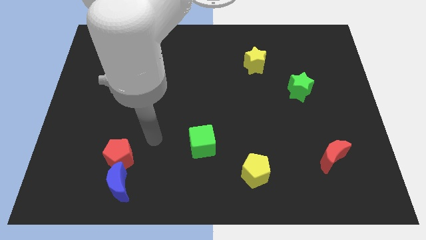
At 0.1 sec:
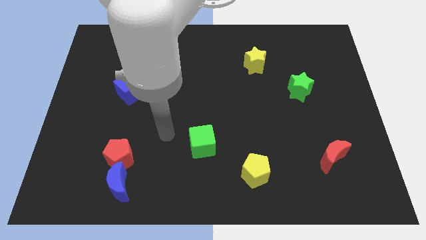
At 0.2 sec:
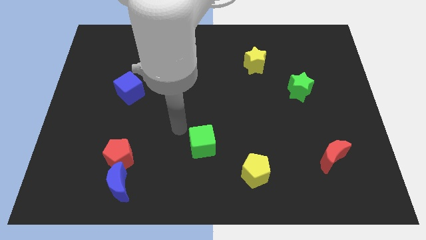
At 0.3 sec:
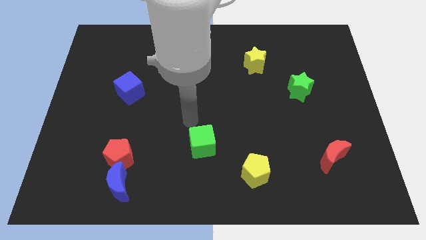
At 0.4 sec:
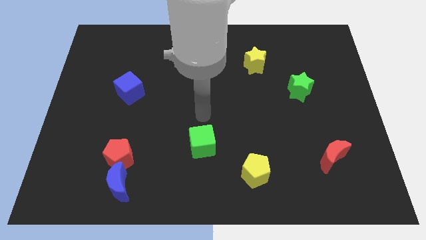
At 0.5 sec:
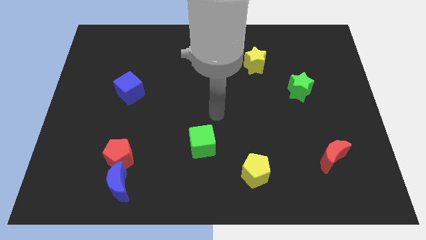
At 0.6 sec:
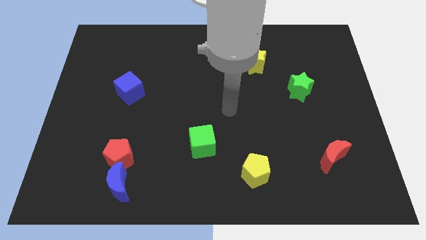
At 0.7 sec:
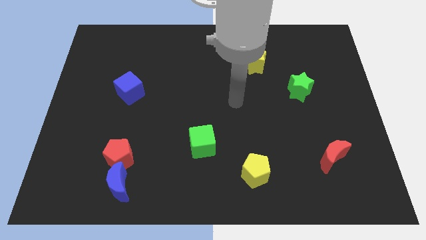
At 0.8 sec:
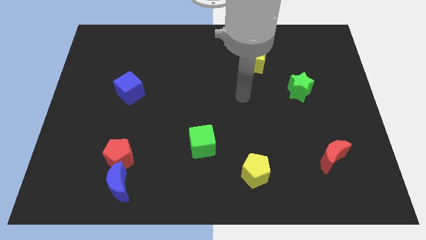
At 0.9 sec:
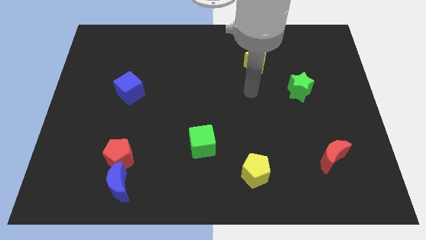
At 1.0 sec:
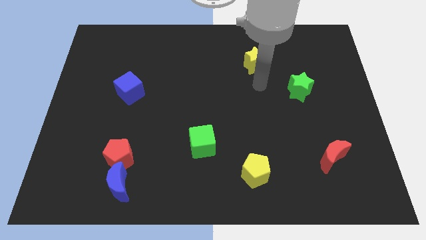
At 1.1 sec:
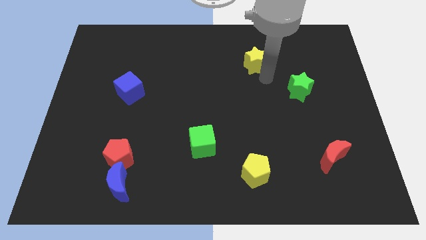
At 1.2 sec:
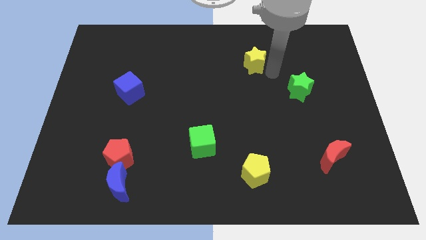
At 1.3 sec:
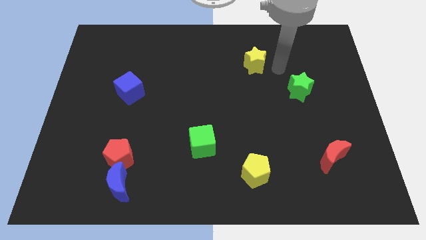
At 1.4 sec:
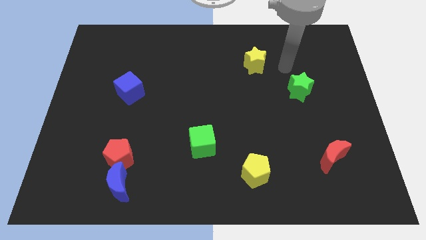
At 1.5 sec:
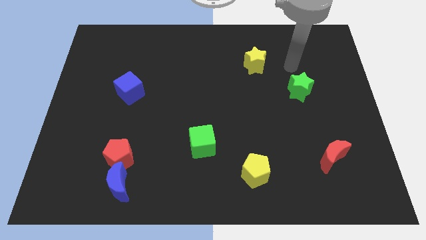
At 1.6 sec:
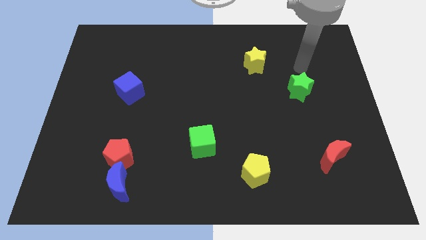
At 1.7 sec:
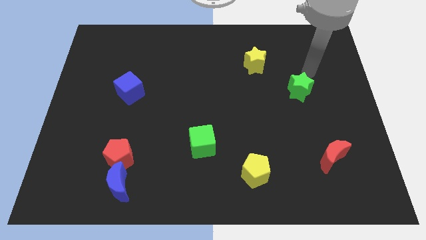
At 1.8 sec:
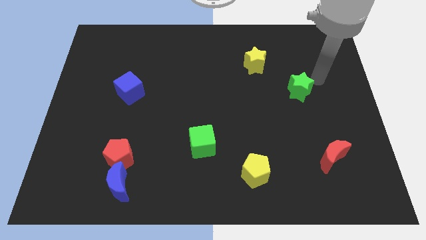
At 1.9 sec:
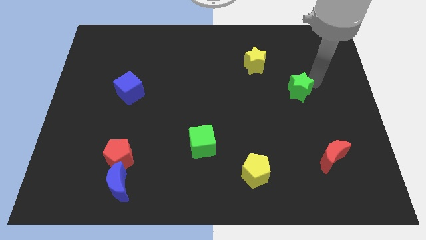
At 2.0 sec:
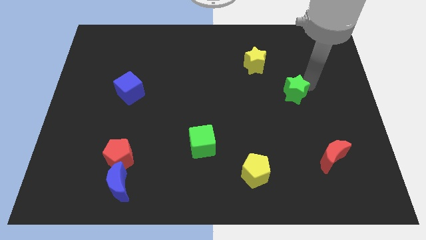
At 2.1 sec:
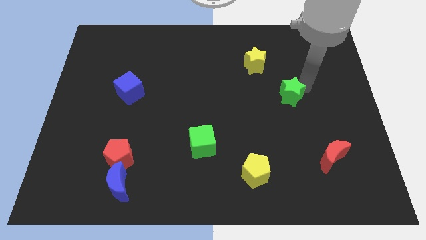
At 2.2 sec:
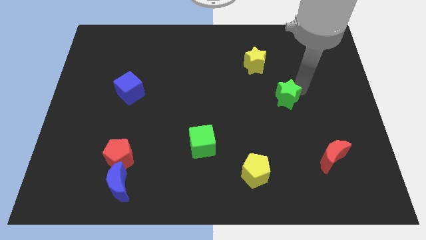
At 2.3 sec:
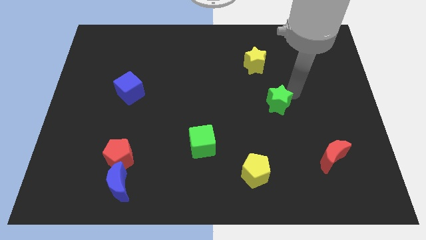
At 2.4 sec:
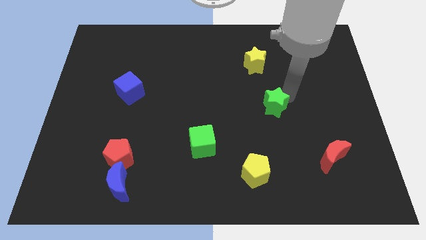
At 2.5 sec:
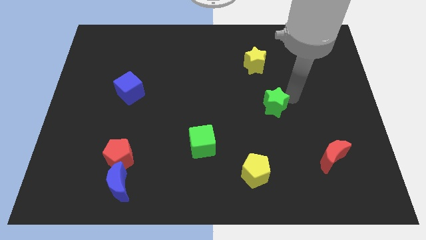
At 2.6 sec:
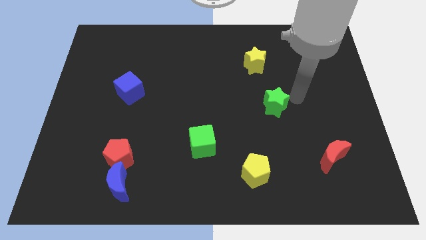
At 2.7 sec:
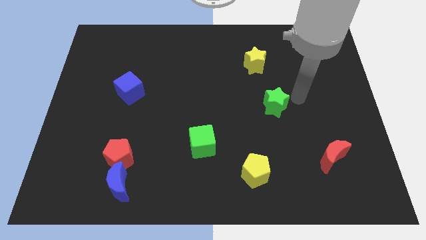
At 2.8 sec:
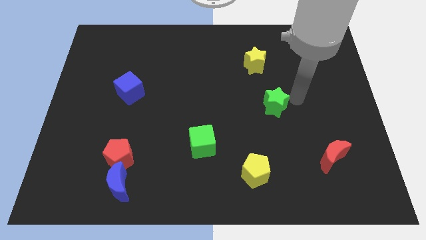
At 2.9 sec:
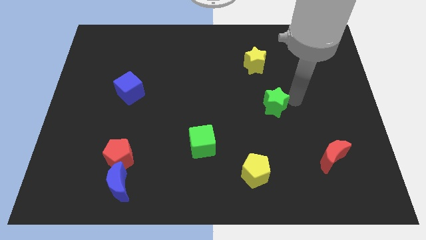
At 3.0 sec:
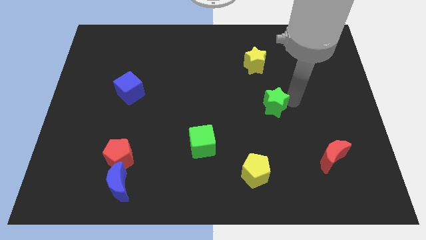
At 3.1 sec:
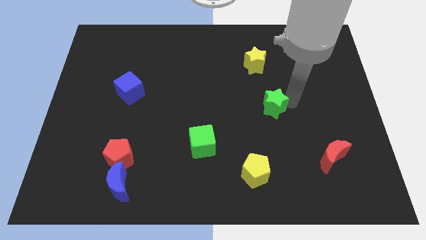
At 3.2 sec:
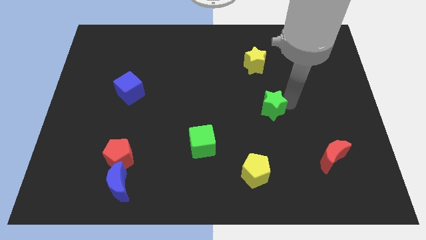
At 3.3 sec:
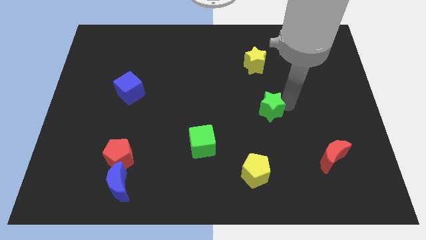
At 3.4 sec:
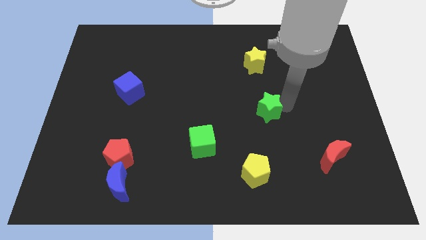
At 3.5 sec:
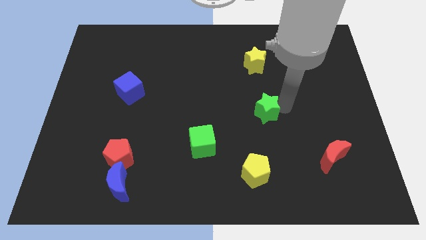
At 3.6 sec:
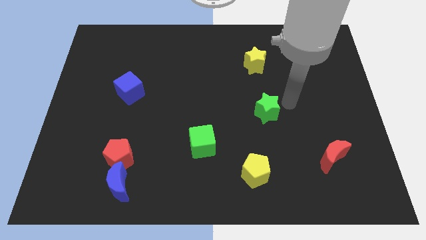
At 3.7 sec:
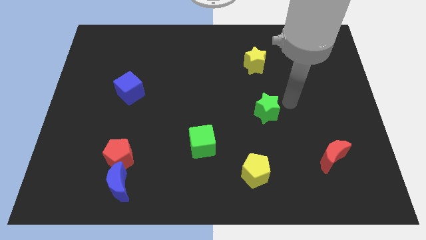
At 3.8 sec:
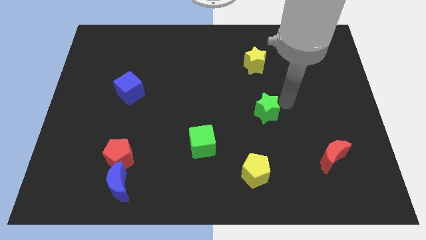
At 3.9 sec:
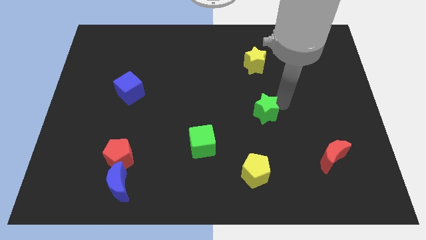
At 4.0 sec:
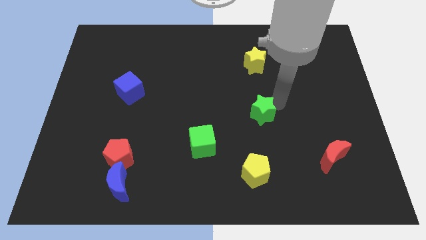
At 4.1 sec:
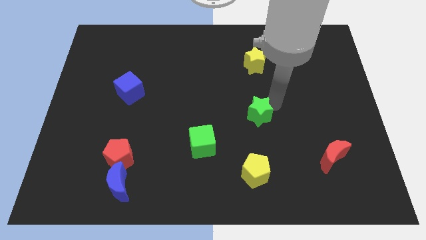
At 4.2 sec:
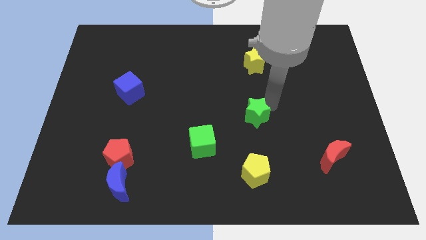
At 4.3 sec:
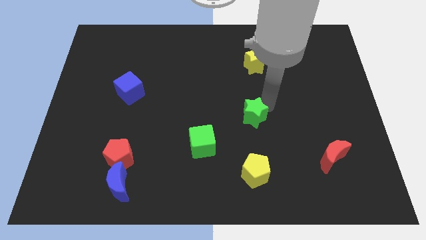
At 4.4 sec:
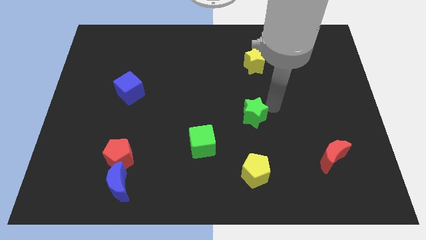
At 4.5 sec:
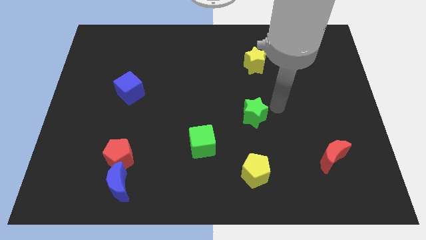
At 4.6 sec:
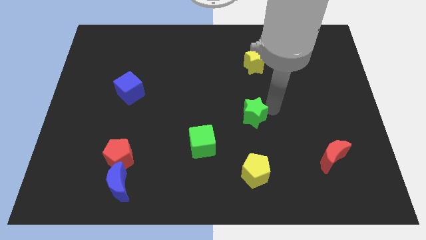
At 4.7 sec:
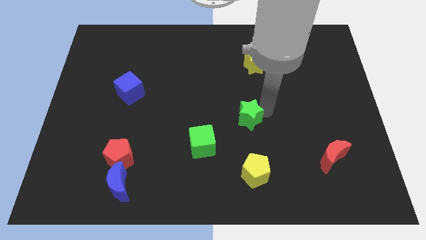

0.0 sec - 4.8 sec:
slide the green star to the top right side of the green cube

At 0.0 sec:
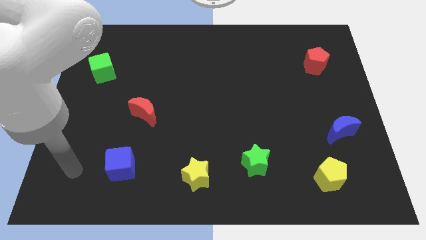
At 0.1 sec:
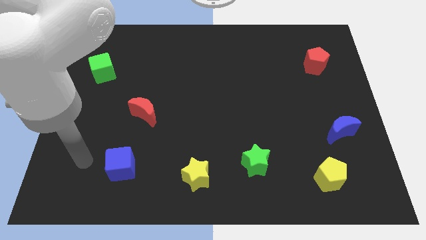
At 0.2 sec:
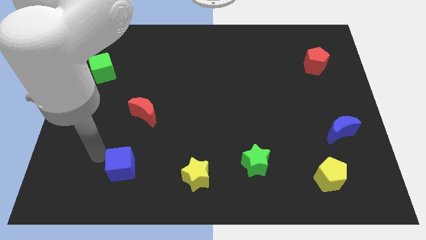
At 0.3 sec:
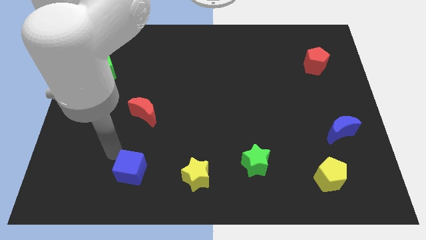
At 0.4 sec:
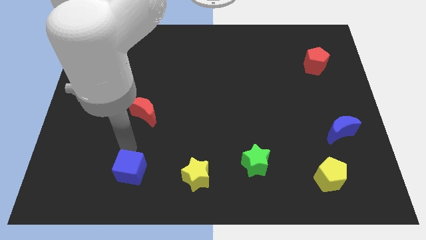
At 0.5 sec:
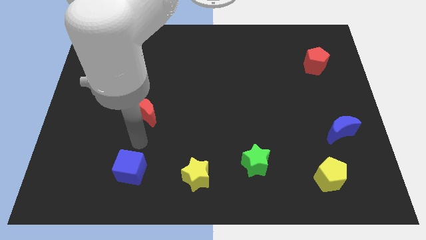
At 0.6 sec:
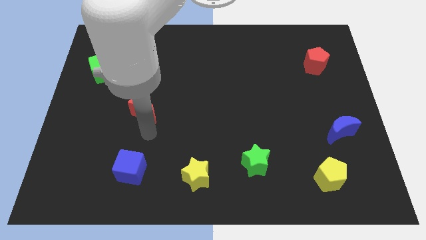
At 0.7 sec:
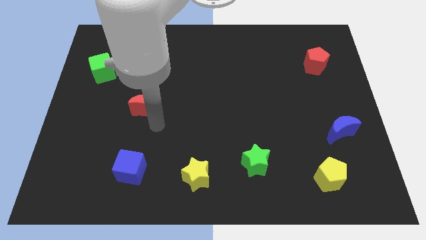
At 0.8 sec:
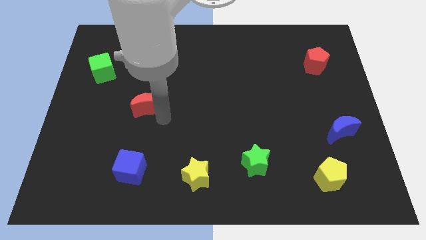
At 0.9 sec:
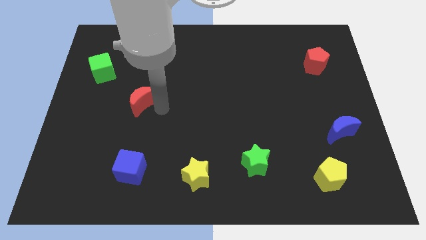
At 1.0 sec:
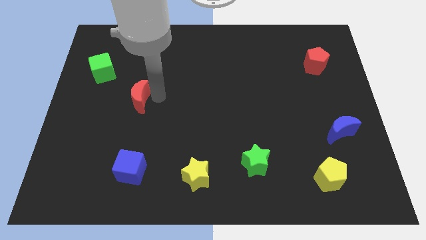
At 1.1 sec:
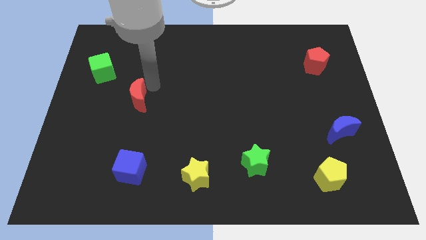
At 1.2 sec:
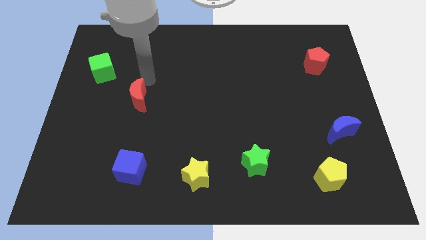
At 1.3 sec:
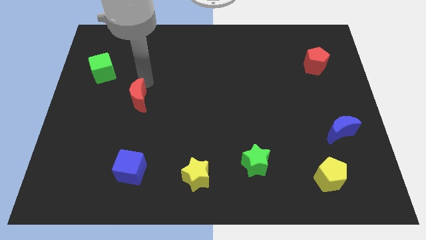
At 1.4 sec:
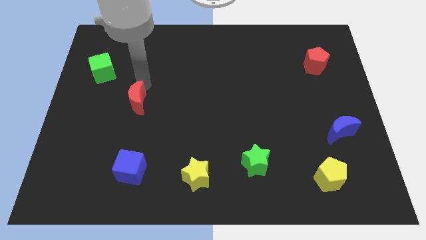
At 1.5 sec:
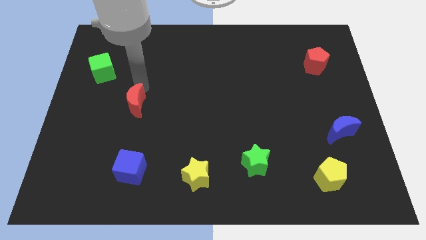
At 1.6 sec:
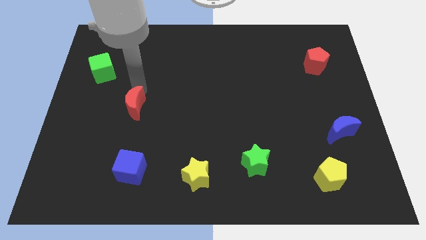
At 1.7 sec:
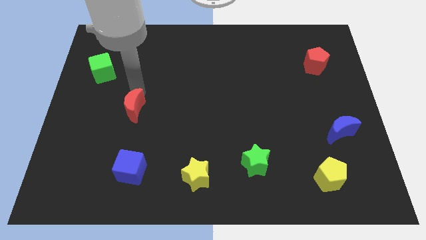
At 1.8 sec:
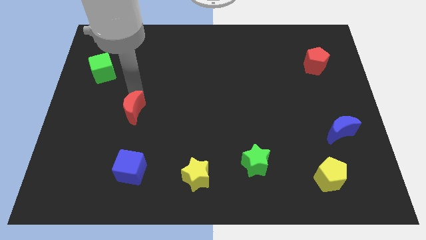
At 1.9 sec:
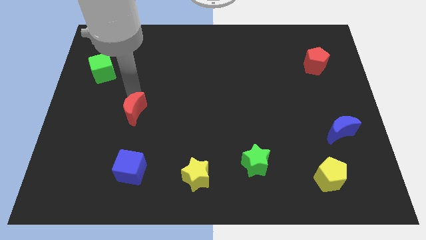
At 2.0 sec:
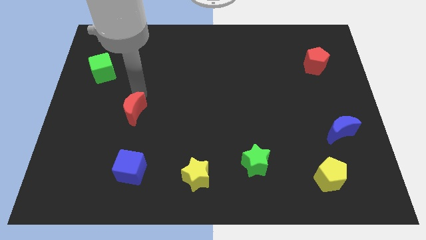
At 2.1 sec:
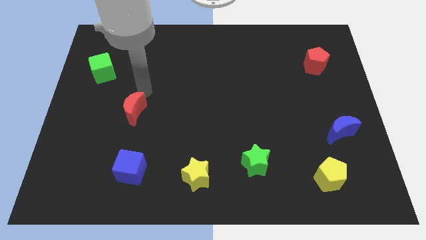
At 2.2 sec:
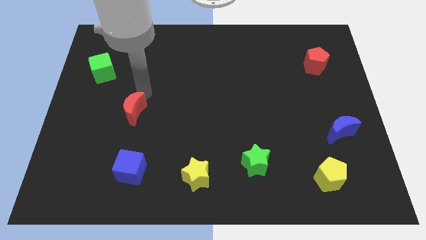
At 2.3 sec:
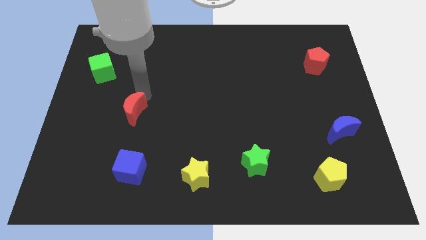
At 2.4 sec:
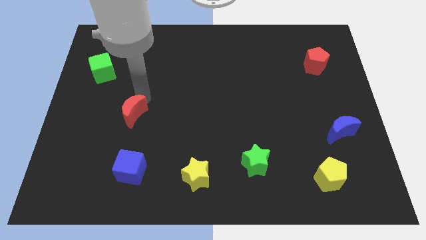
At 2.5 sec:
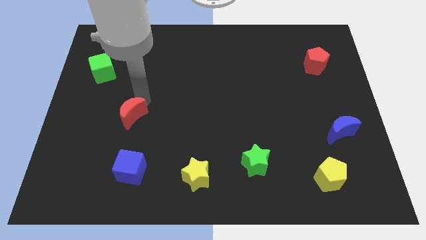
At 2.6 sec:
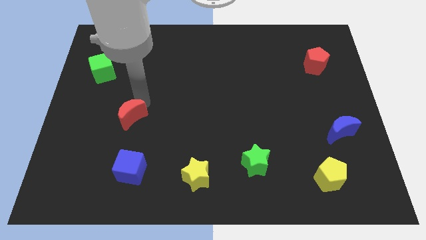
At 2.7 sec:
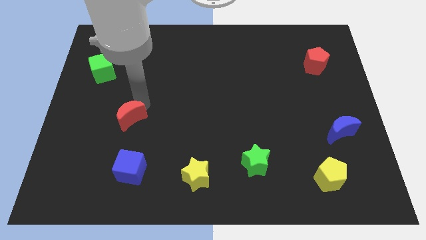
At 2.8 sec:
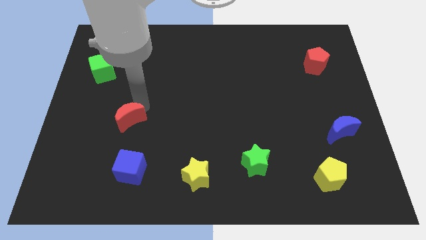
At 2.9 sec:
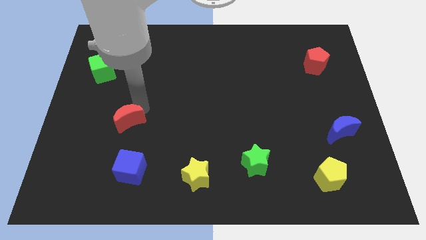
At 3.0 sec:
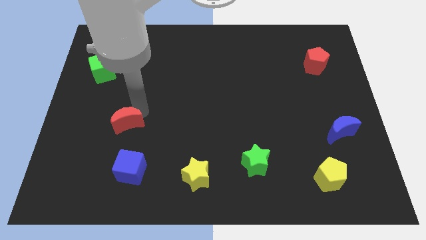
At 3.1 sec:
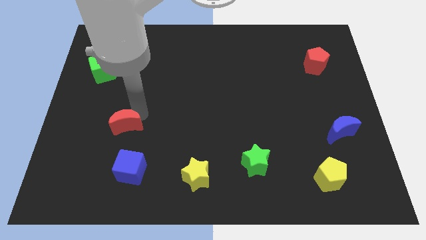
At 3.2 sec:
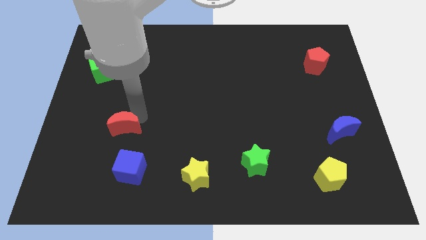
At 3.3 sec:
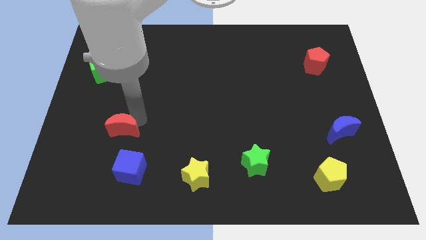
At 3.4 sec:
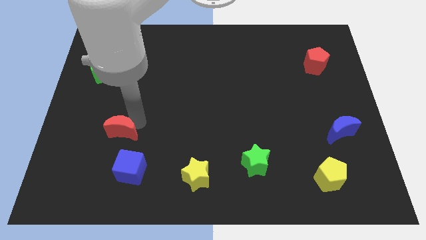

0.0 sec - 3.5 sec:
move the red moon to the top left side of the blue cube
